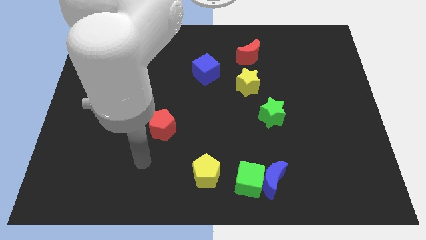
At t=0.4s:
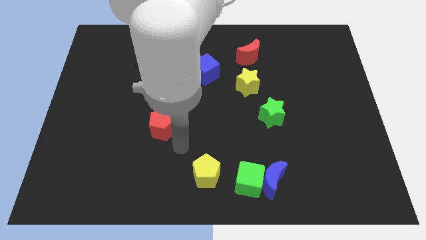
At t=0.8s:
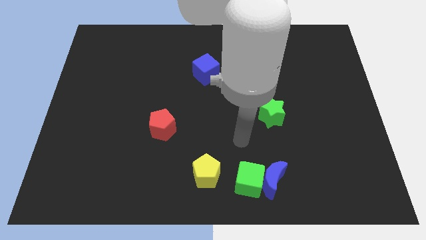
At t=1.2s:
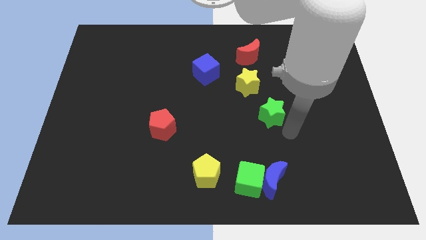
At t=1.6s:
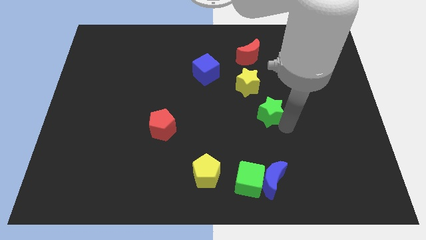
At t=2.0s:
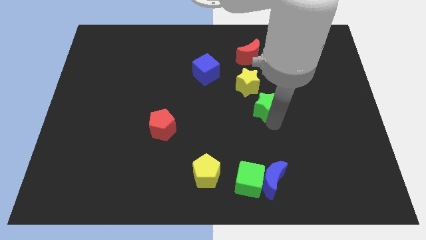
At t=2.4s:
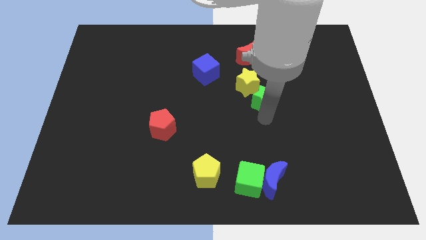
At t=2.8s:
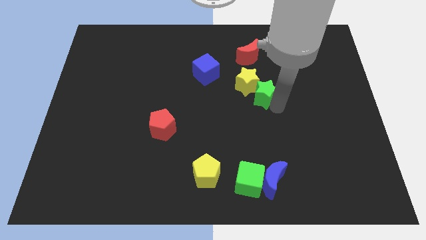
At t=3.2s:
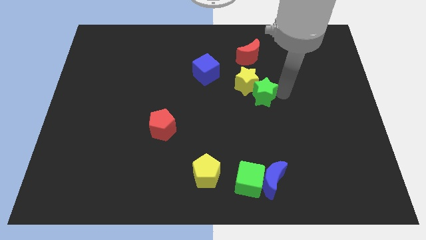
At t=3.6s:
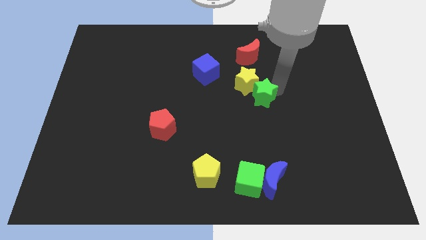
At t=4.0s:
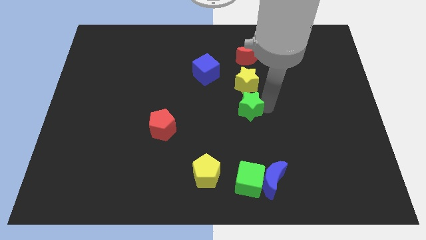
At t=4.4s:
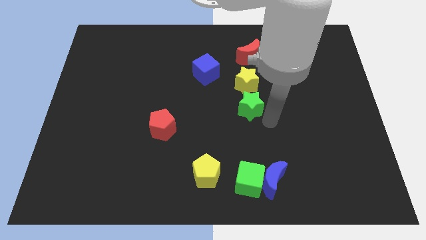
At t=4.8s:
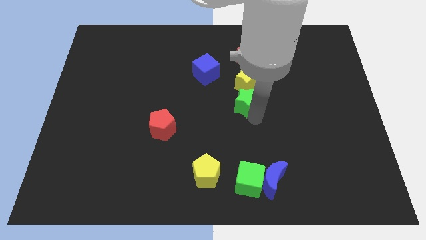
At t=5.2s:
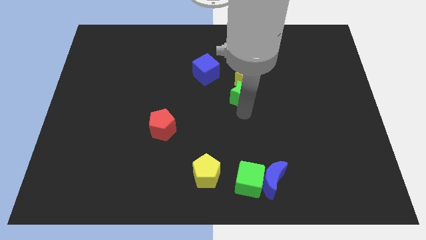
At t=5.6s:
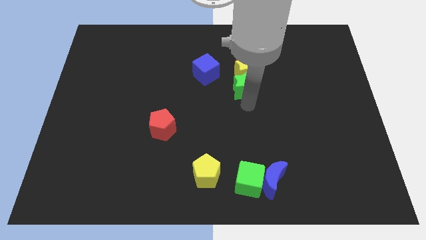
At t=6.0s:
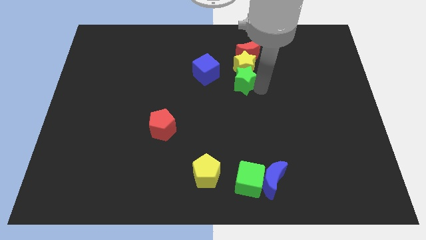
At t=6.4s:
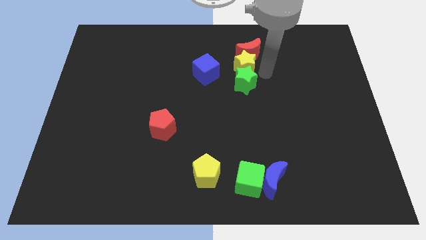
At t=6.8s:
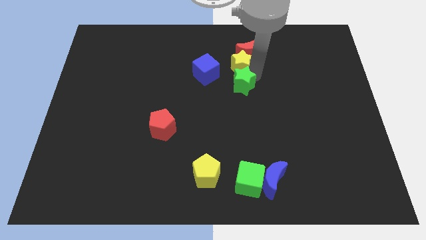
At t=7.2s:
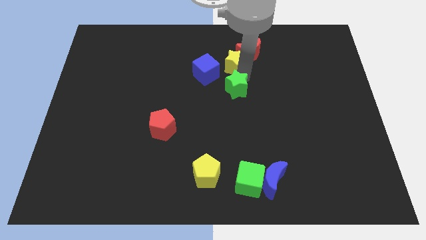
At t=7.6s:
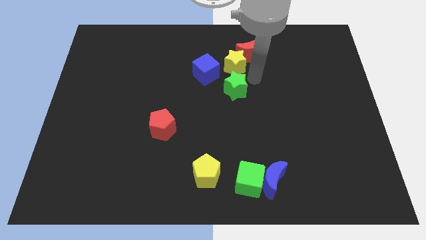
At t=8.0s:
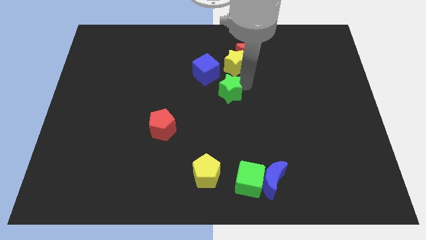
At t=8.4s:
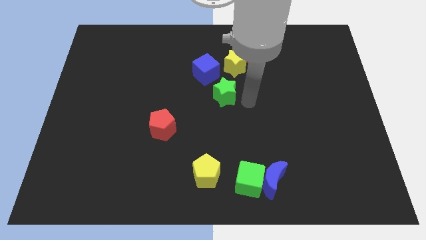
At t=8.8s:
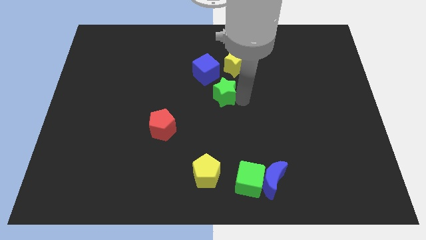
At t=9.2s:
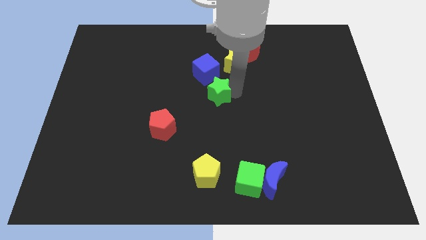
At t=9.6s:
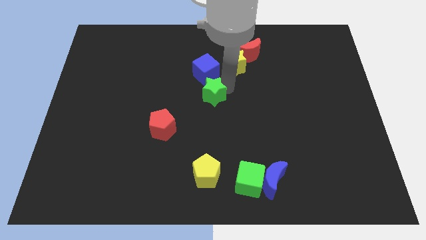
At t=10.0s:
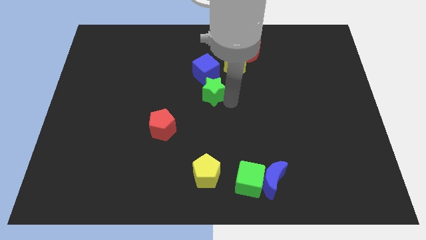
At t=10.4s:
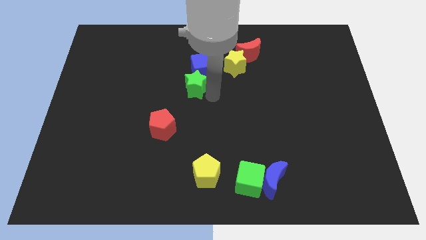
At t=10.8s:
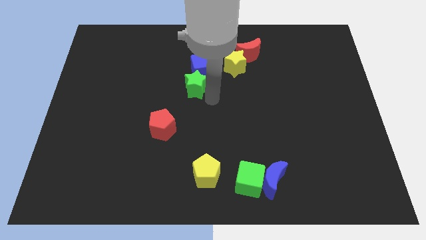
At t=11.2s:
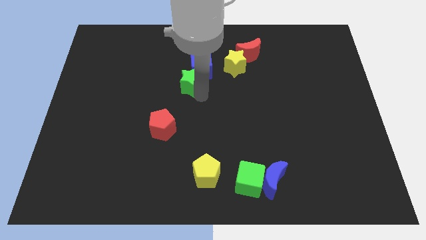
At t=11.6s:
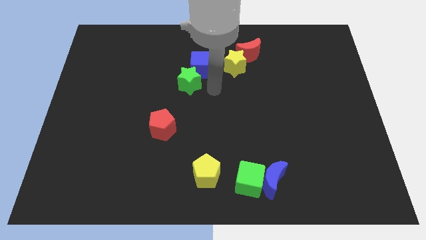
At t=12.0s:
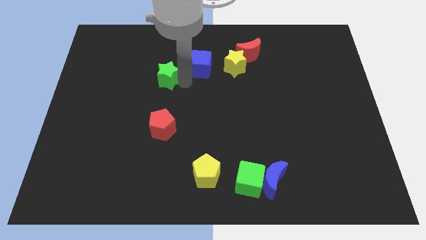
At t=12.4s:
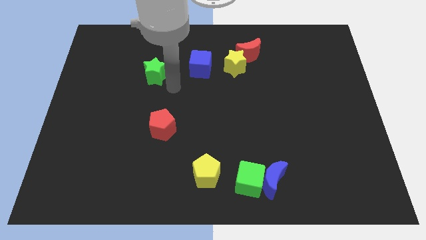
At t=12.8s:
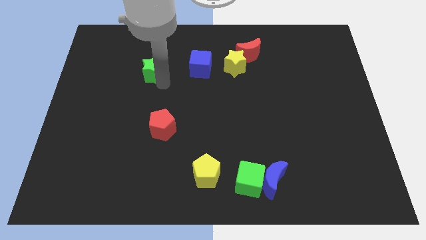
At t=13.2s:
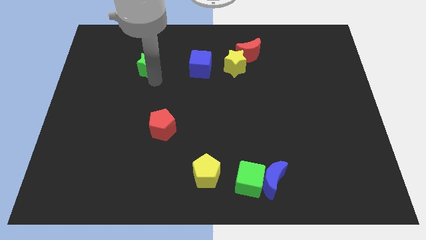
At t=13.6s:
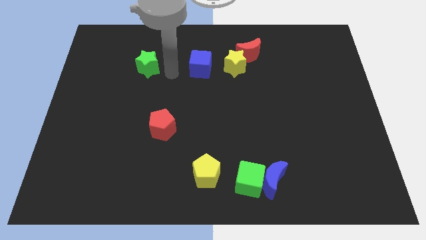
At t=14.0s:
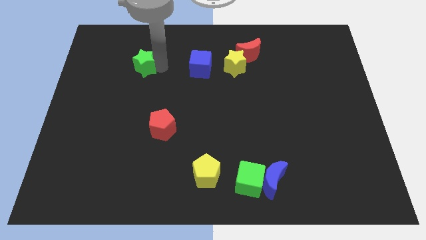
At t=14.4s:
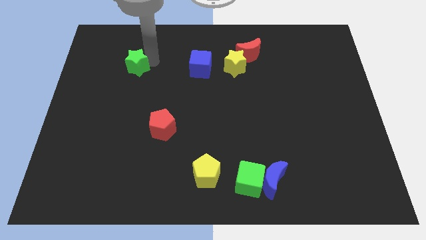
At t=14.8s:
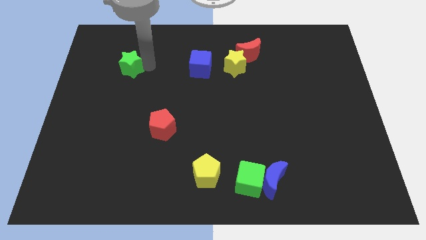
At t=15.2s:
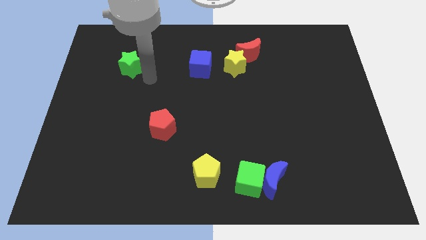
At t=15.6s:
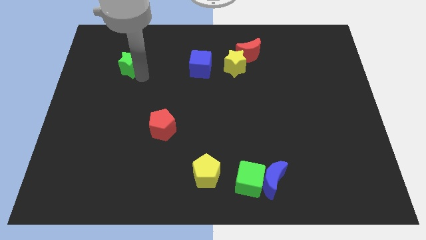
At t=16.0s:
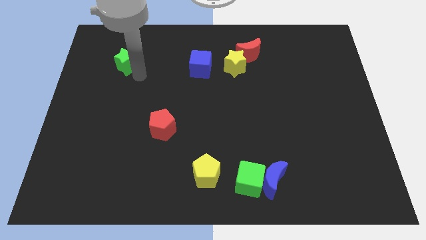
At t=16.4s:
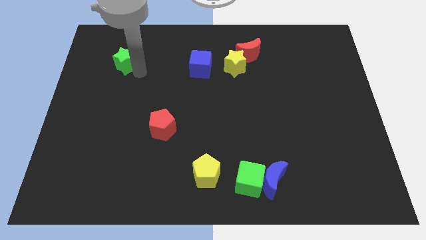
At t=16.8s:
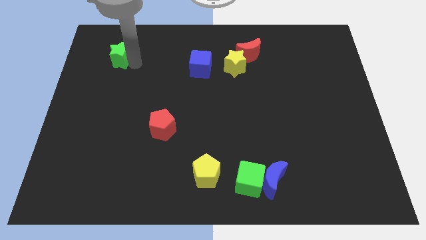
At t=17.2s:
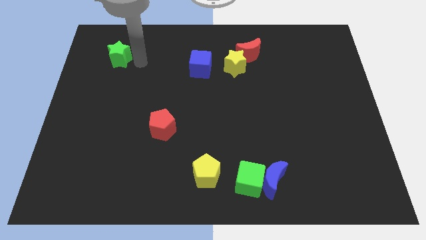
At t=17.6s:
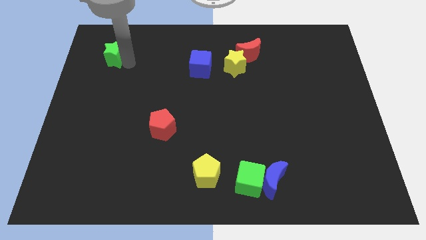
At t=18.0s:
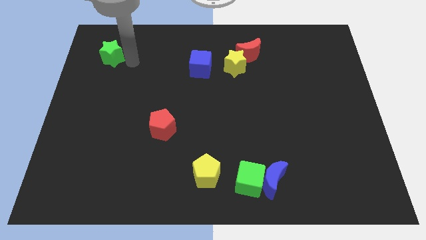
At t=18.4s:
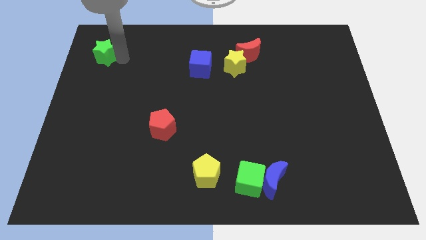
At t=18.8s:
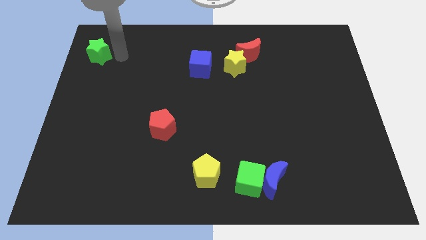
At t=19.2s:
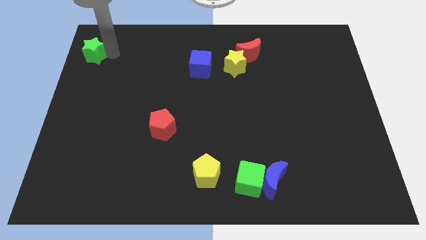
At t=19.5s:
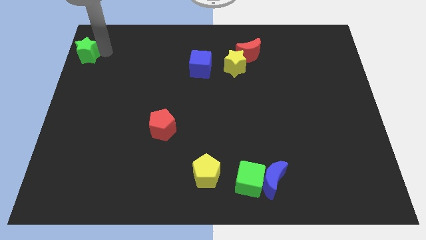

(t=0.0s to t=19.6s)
slide the green star to the top left corner

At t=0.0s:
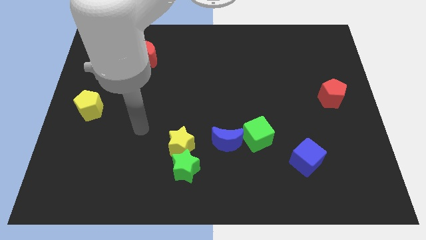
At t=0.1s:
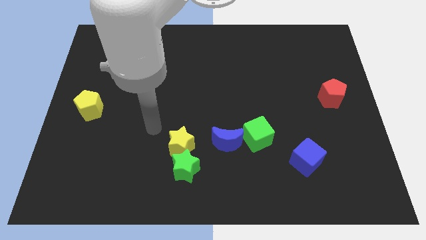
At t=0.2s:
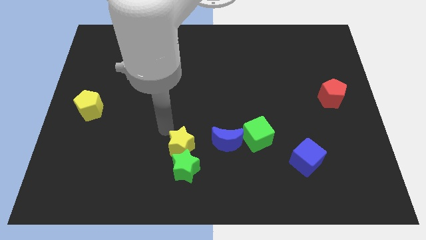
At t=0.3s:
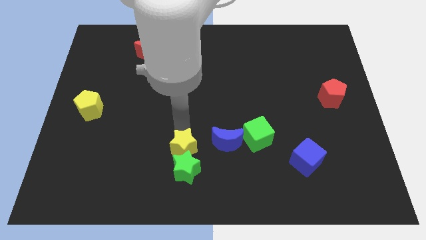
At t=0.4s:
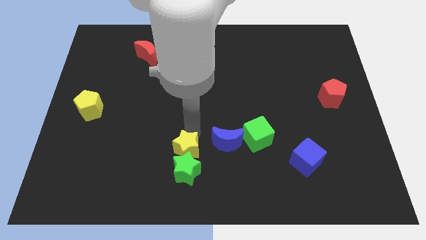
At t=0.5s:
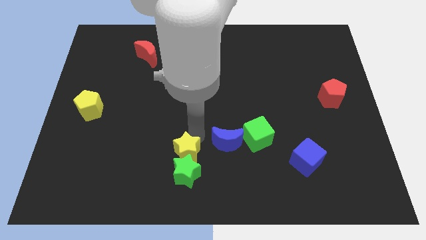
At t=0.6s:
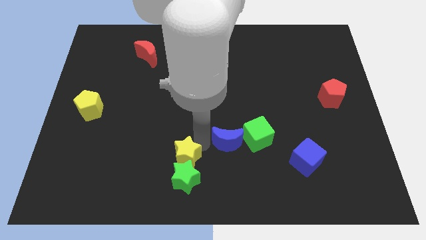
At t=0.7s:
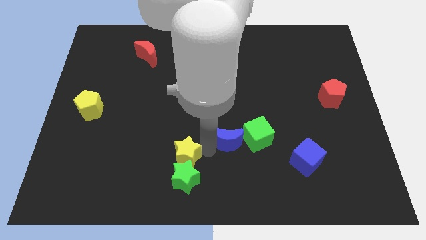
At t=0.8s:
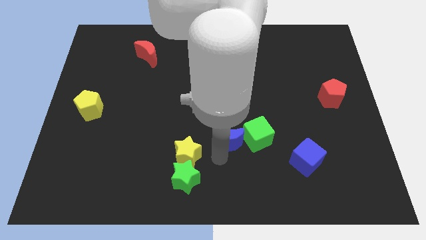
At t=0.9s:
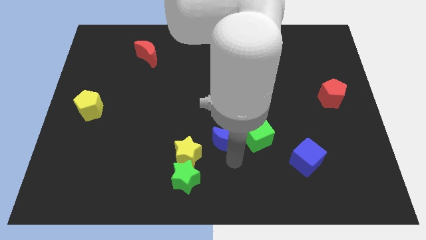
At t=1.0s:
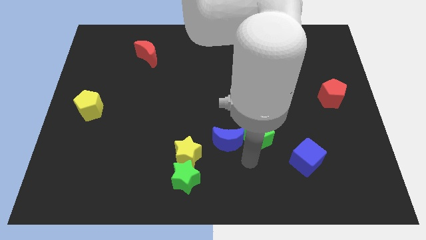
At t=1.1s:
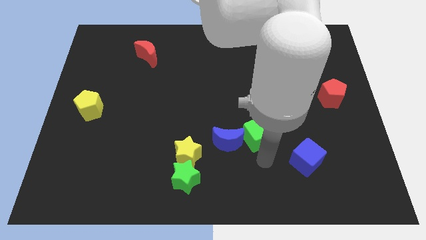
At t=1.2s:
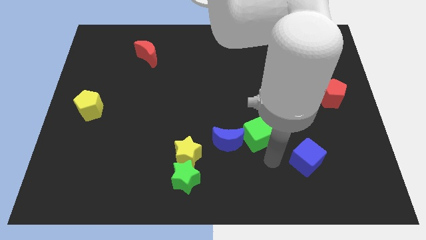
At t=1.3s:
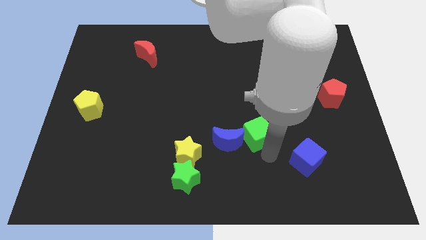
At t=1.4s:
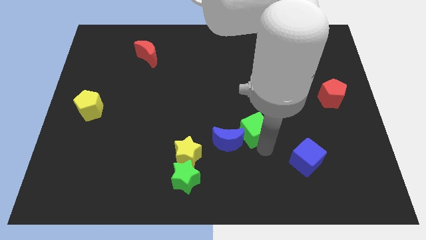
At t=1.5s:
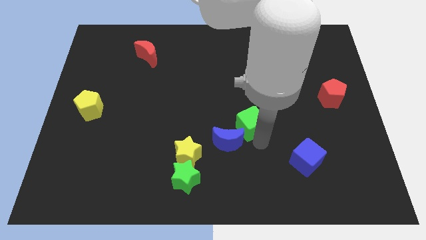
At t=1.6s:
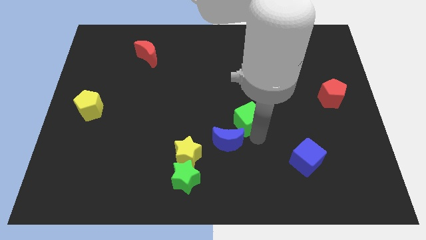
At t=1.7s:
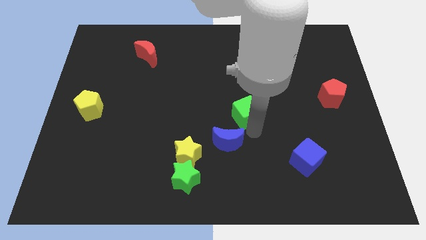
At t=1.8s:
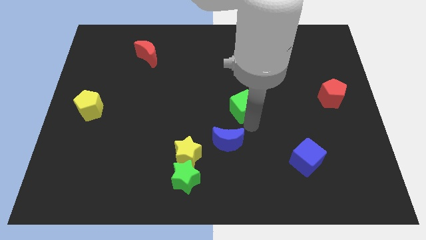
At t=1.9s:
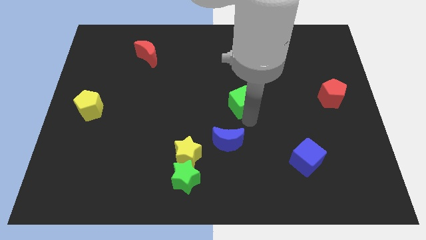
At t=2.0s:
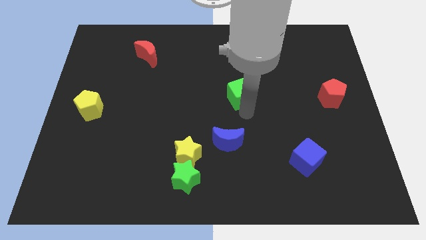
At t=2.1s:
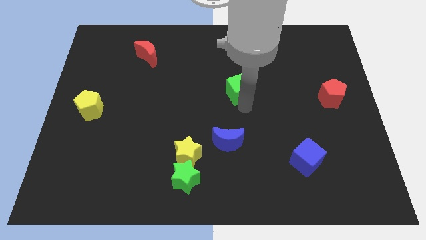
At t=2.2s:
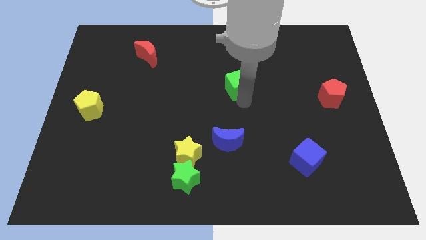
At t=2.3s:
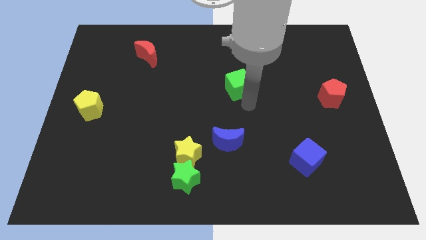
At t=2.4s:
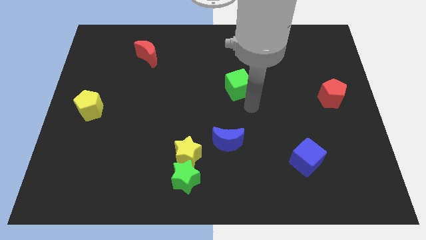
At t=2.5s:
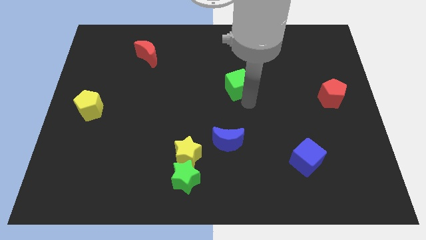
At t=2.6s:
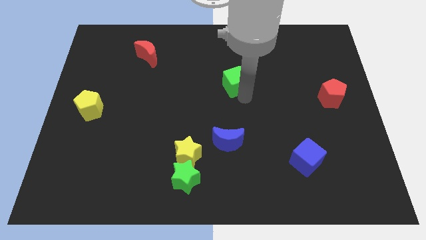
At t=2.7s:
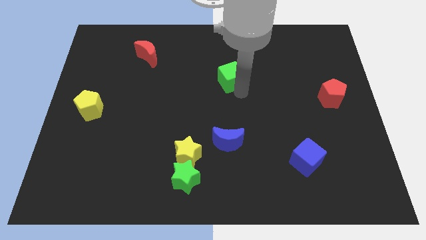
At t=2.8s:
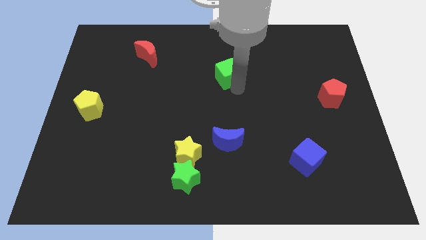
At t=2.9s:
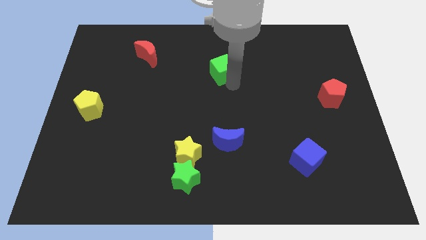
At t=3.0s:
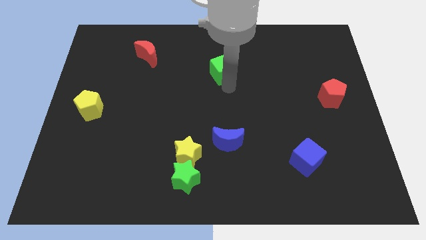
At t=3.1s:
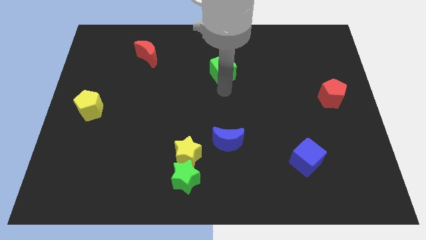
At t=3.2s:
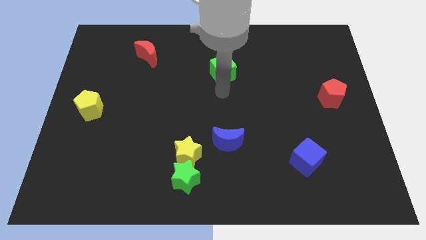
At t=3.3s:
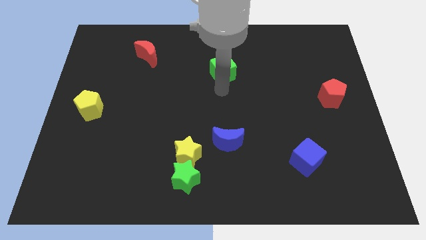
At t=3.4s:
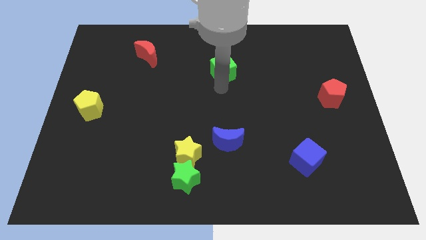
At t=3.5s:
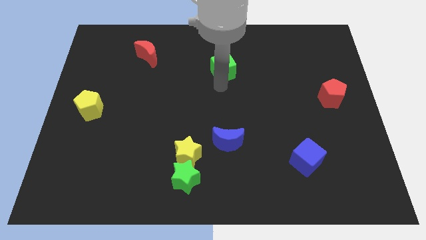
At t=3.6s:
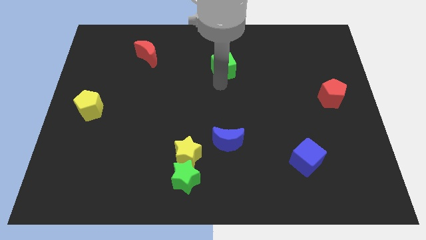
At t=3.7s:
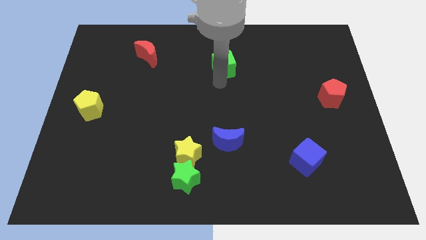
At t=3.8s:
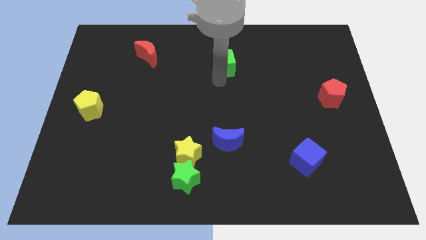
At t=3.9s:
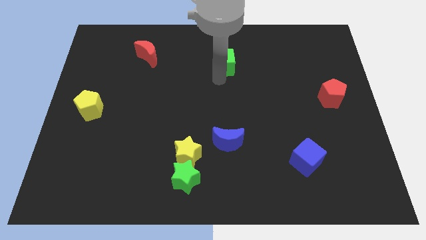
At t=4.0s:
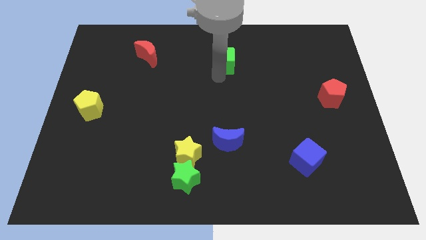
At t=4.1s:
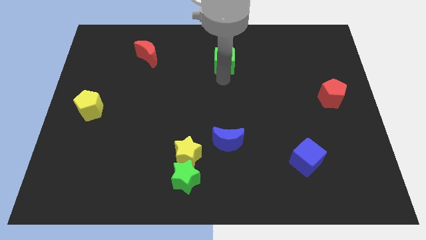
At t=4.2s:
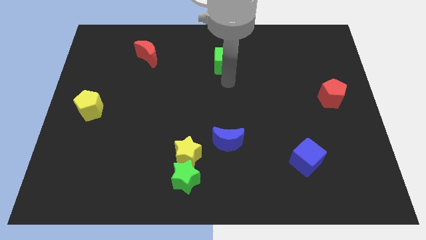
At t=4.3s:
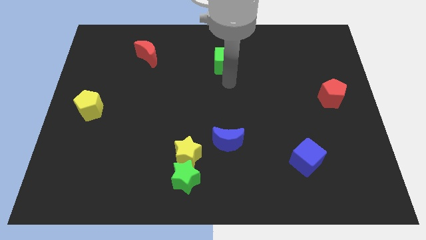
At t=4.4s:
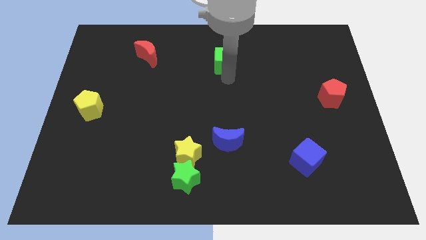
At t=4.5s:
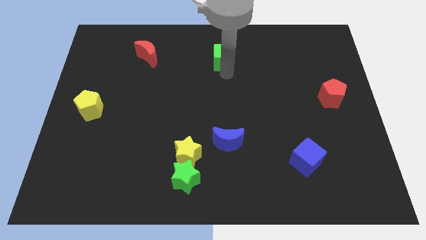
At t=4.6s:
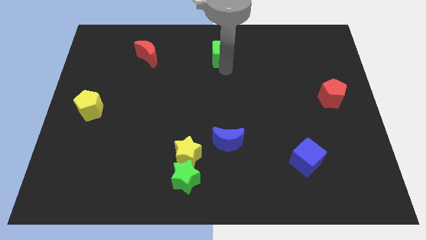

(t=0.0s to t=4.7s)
put the green cube to the top
